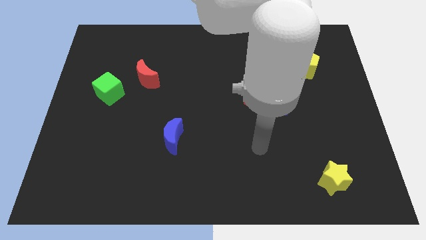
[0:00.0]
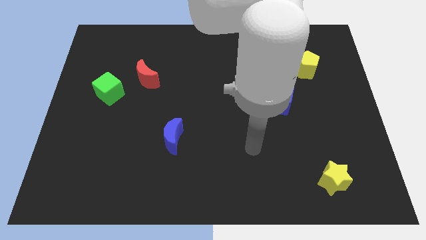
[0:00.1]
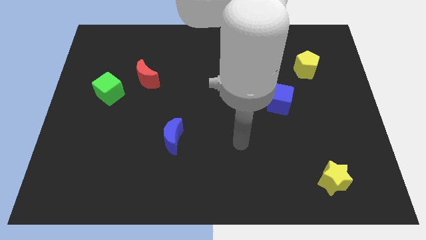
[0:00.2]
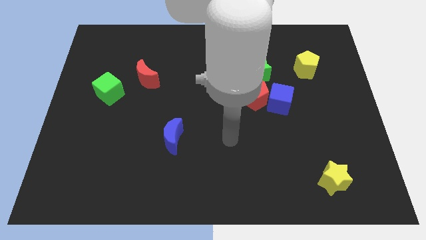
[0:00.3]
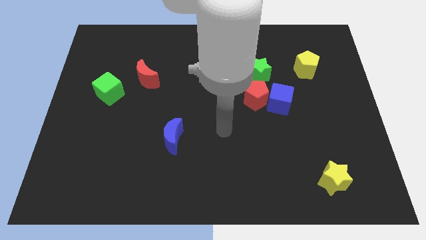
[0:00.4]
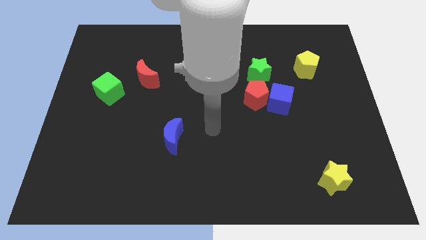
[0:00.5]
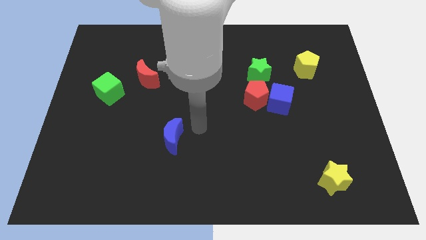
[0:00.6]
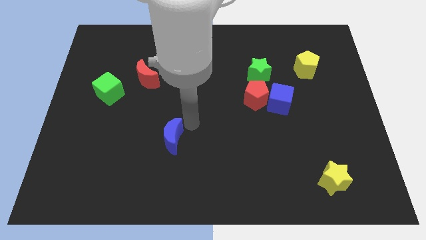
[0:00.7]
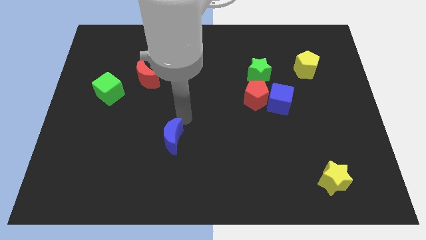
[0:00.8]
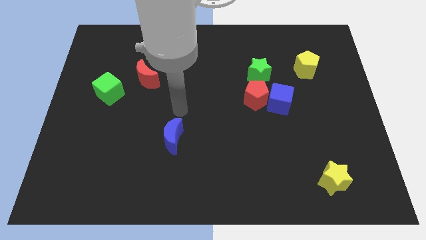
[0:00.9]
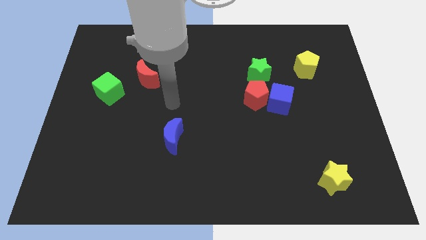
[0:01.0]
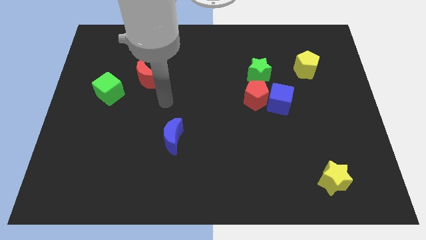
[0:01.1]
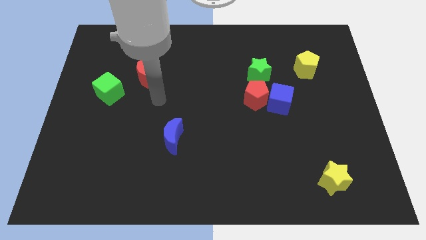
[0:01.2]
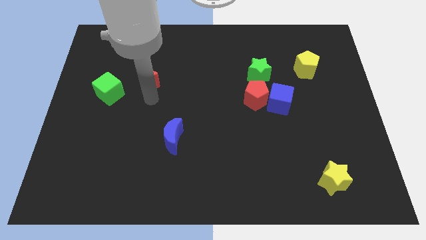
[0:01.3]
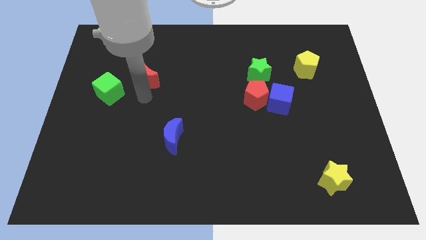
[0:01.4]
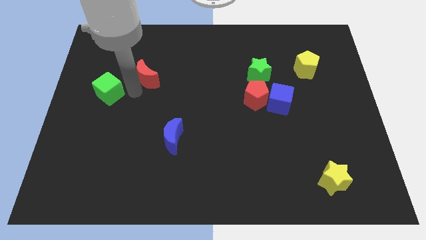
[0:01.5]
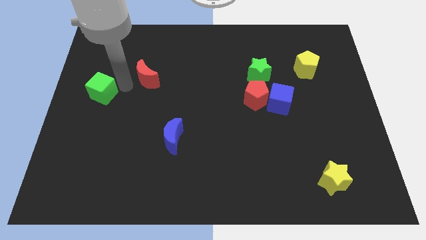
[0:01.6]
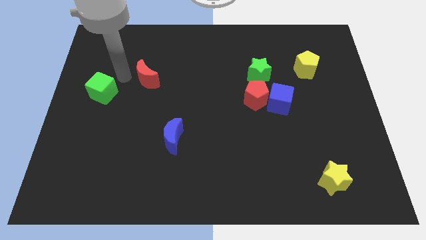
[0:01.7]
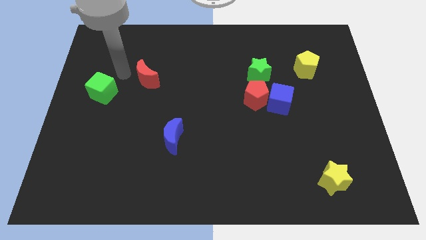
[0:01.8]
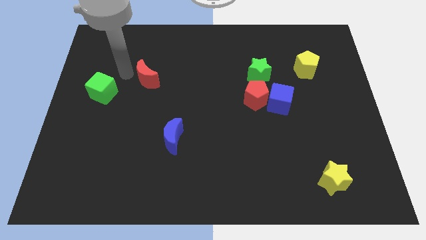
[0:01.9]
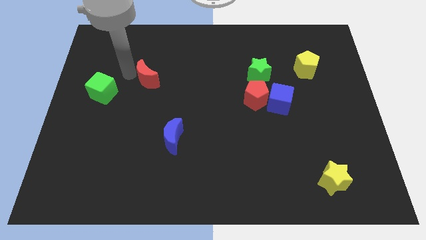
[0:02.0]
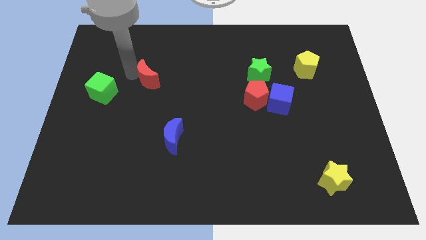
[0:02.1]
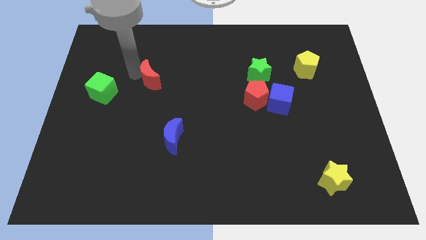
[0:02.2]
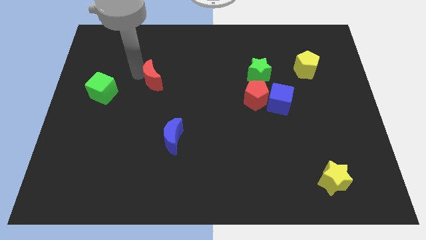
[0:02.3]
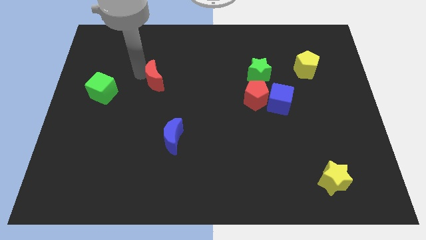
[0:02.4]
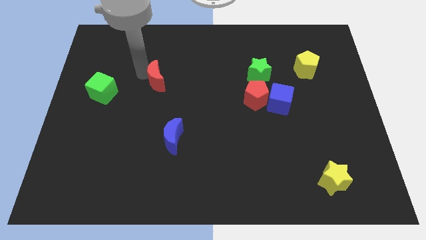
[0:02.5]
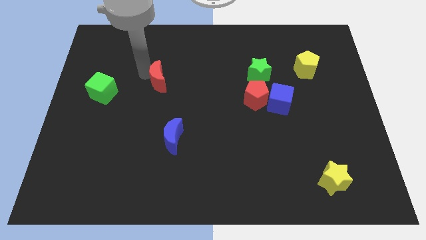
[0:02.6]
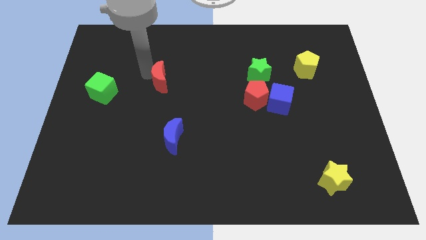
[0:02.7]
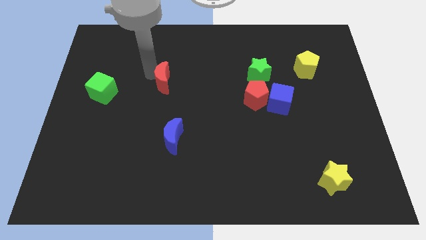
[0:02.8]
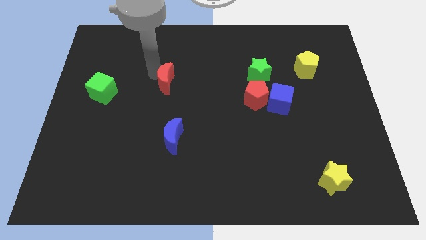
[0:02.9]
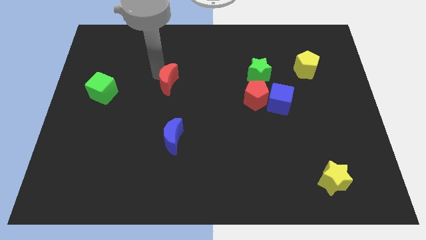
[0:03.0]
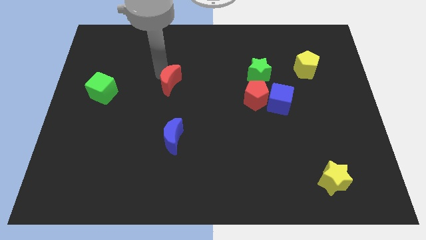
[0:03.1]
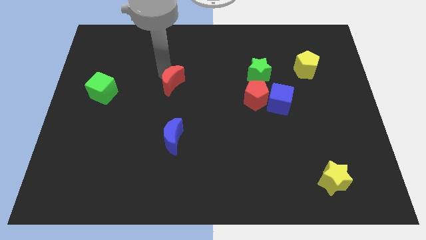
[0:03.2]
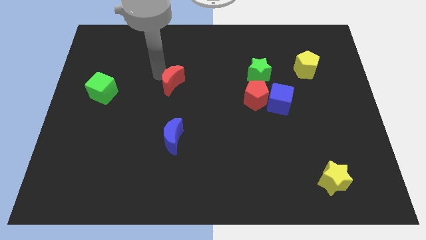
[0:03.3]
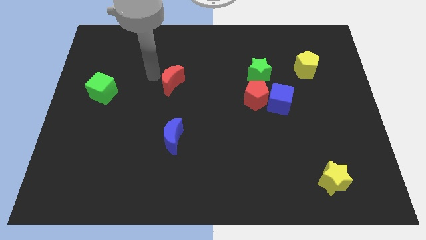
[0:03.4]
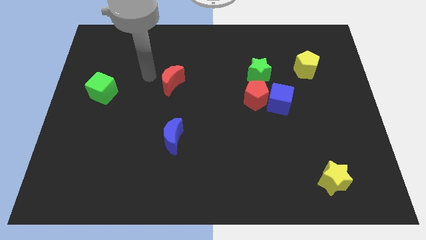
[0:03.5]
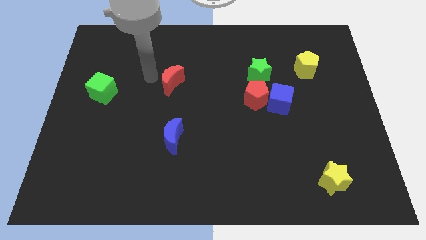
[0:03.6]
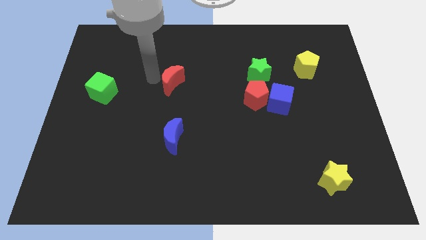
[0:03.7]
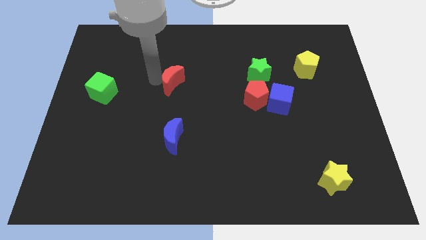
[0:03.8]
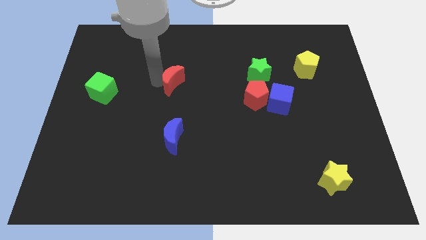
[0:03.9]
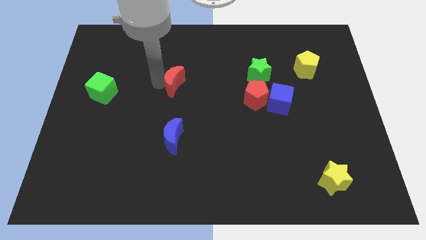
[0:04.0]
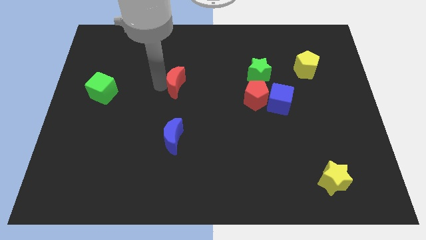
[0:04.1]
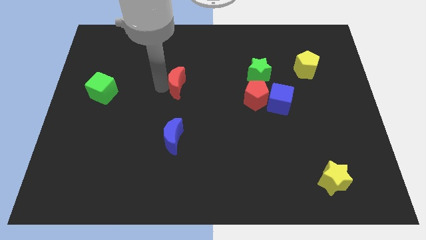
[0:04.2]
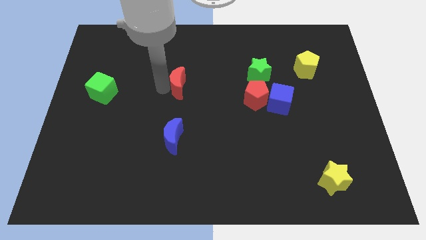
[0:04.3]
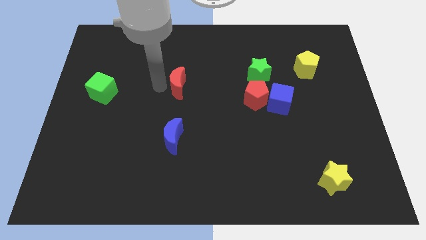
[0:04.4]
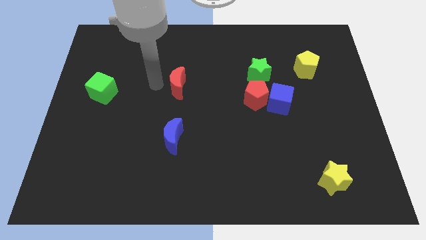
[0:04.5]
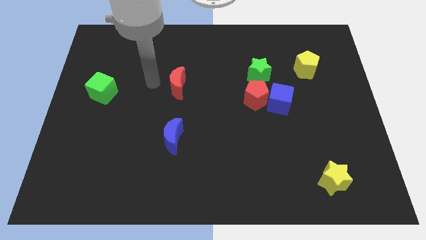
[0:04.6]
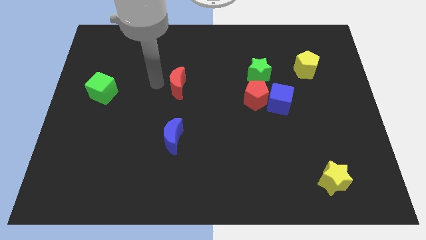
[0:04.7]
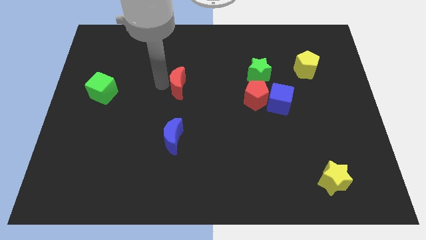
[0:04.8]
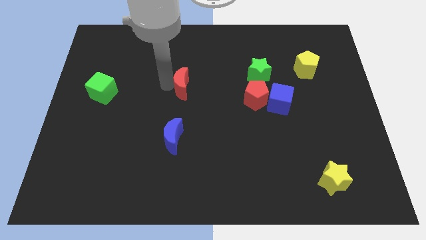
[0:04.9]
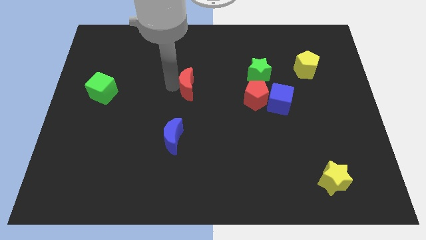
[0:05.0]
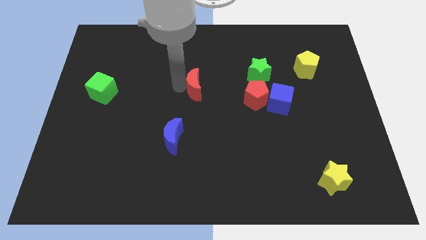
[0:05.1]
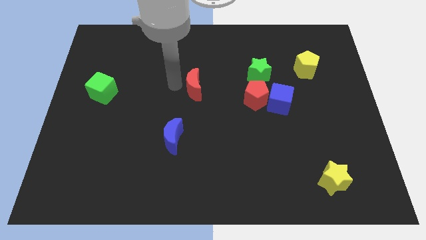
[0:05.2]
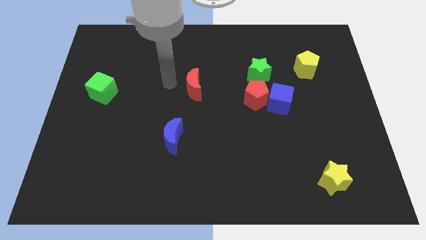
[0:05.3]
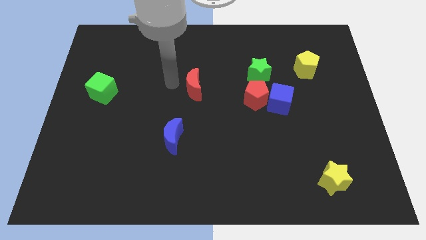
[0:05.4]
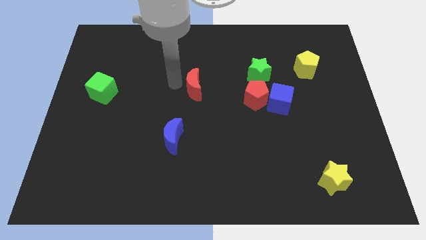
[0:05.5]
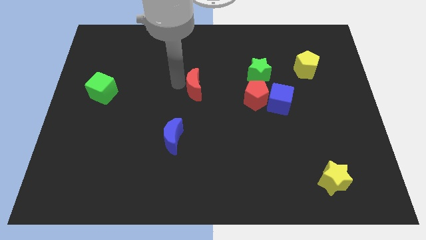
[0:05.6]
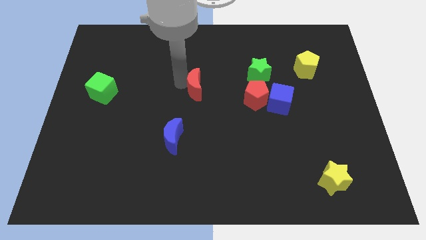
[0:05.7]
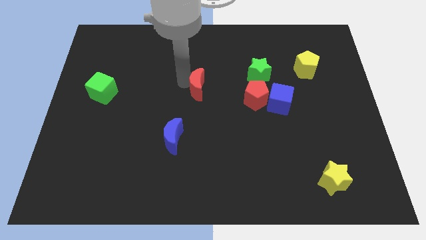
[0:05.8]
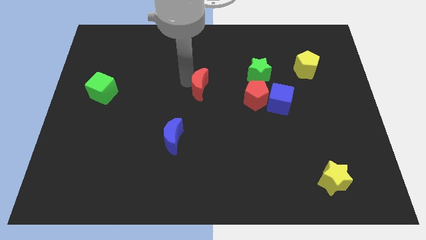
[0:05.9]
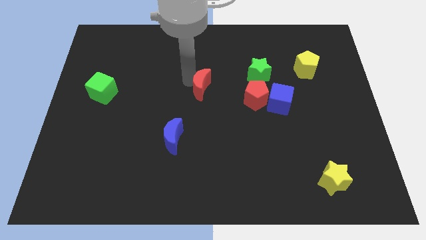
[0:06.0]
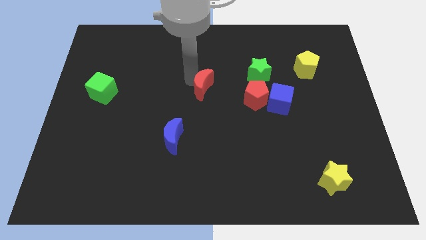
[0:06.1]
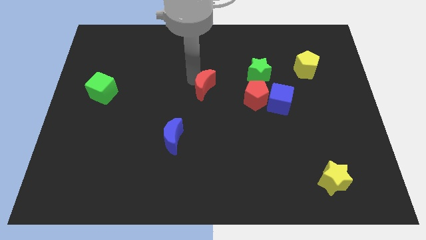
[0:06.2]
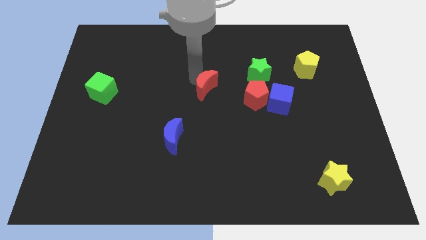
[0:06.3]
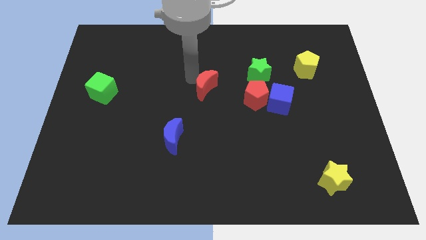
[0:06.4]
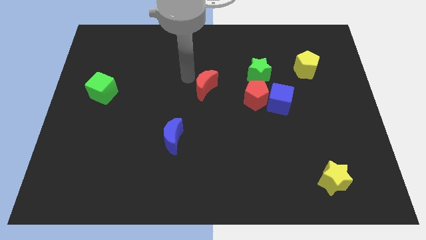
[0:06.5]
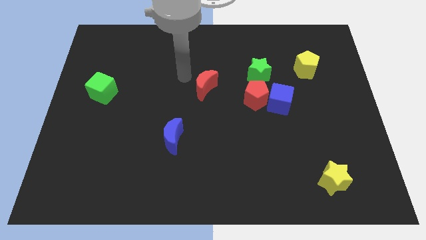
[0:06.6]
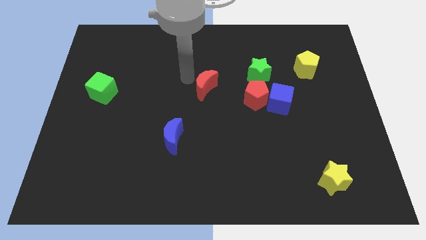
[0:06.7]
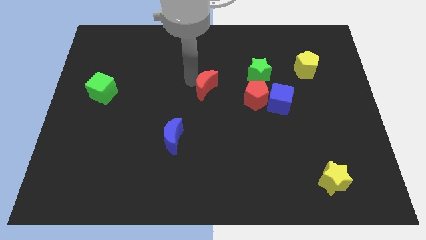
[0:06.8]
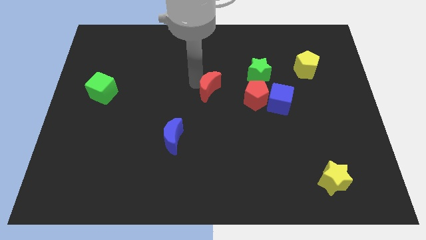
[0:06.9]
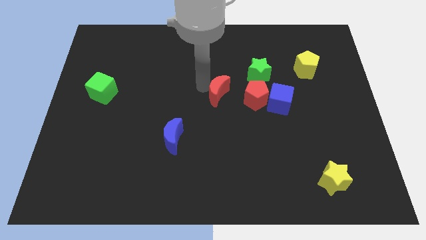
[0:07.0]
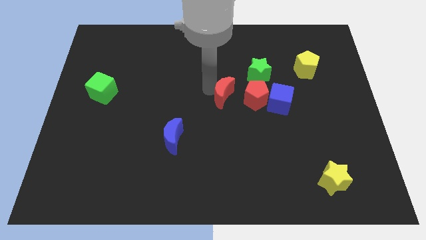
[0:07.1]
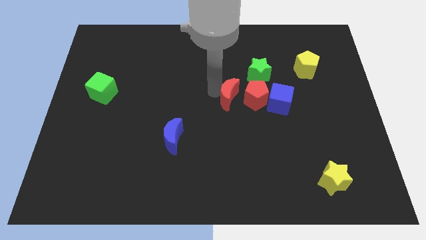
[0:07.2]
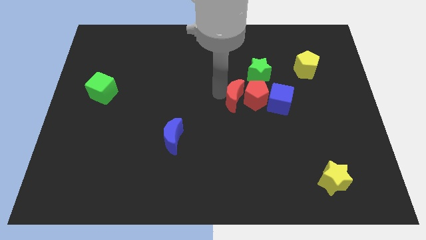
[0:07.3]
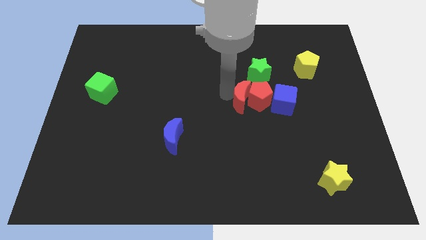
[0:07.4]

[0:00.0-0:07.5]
push the red moon below the green star
